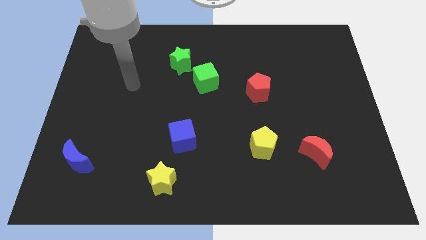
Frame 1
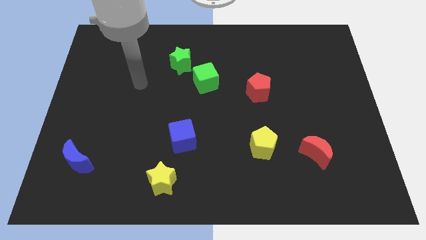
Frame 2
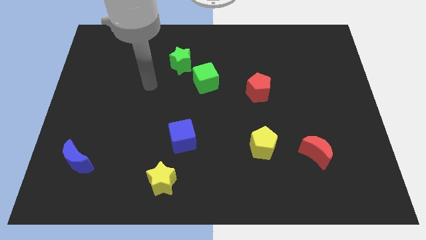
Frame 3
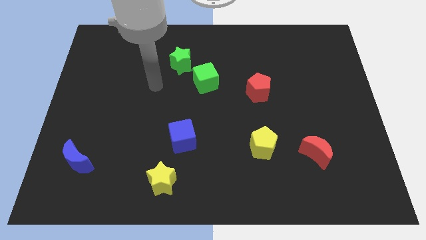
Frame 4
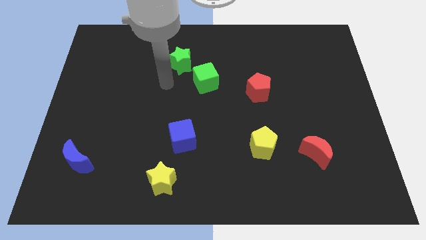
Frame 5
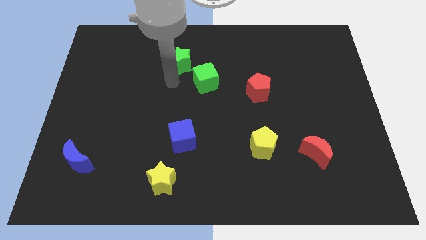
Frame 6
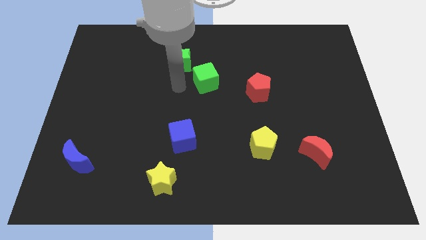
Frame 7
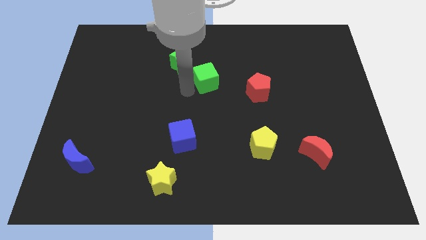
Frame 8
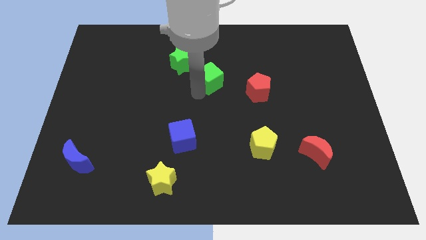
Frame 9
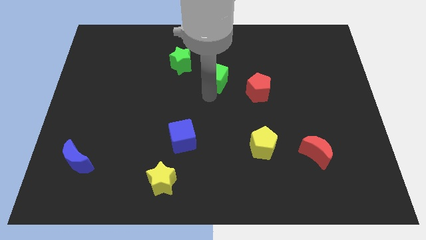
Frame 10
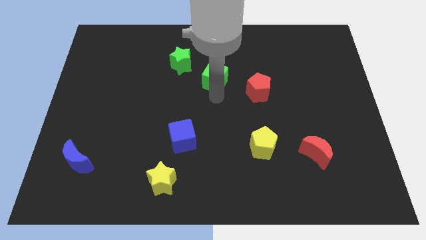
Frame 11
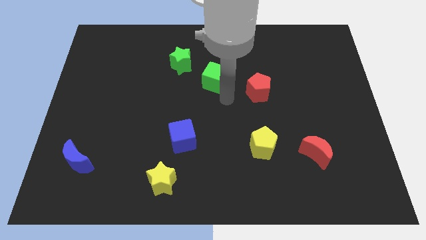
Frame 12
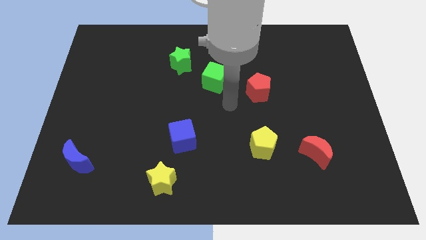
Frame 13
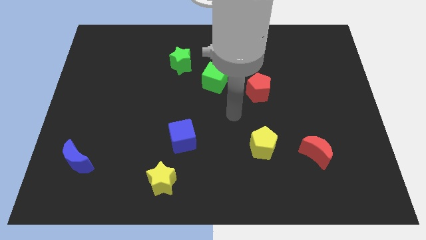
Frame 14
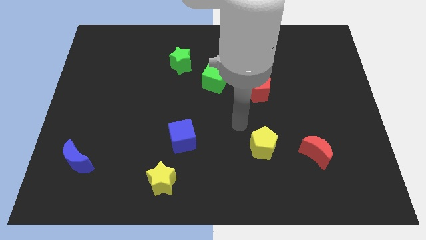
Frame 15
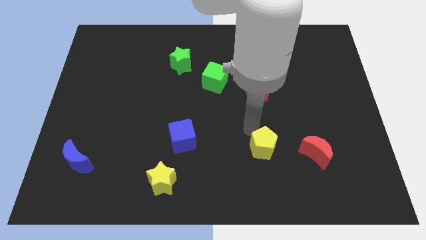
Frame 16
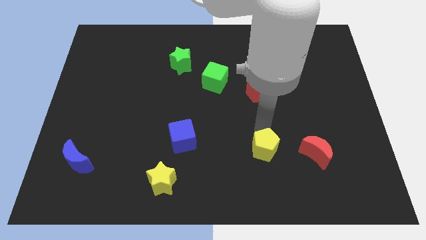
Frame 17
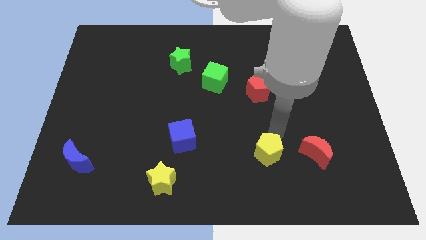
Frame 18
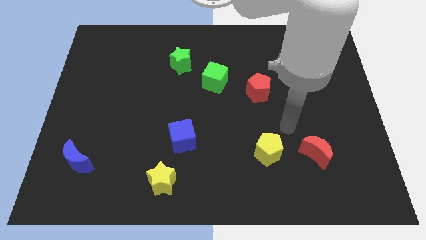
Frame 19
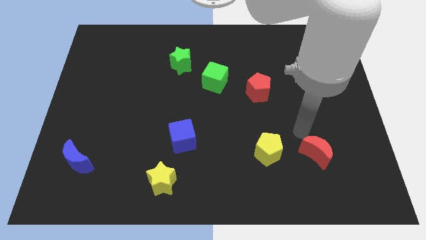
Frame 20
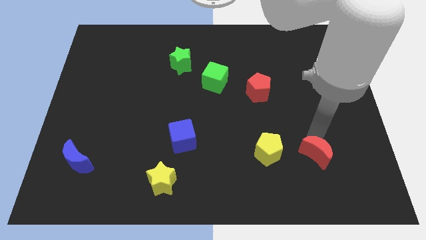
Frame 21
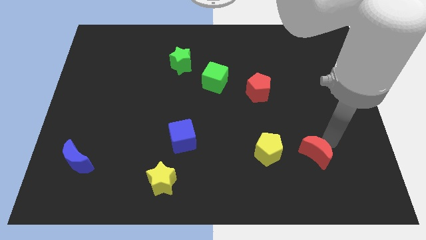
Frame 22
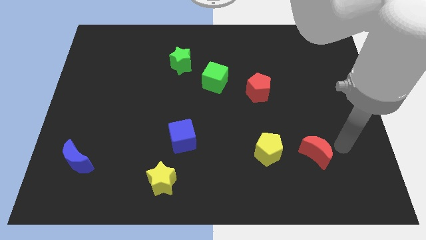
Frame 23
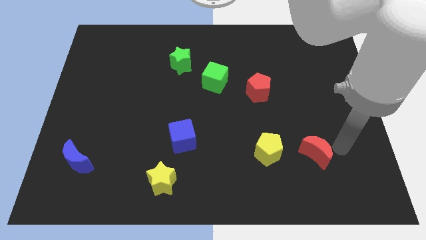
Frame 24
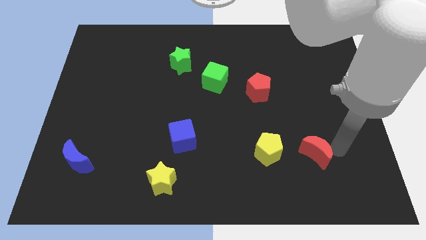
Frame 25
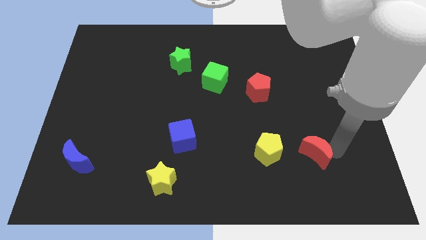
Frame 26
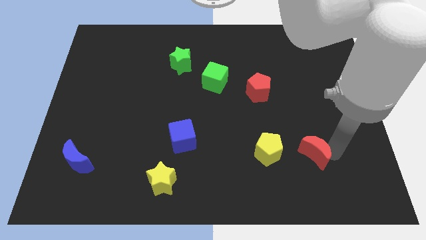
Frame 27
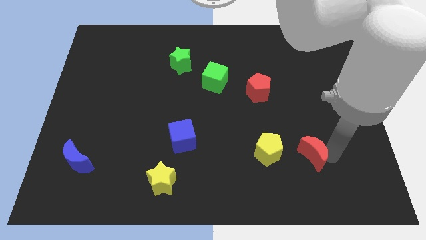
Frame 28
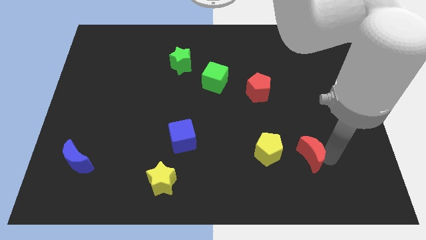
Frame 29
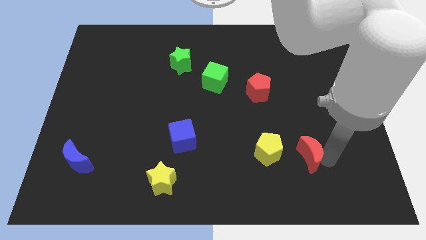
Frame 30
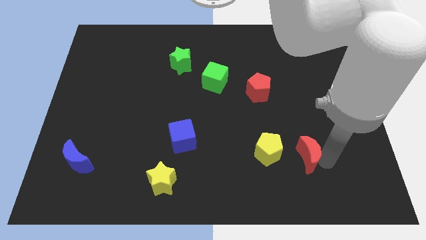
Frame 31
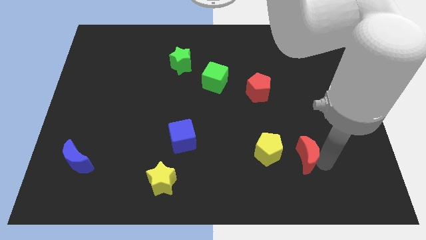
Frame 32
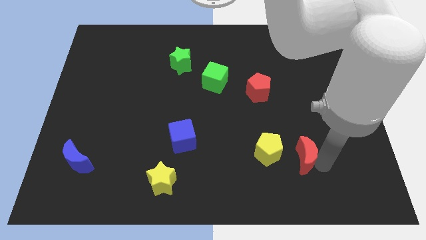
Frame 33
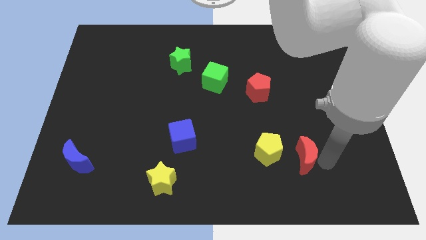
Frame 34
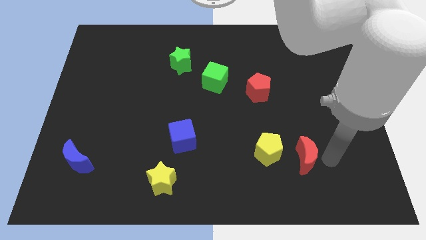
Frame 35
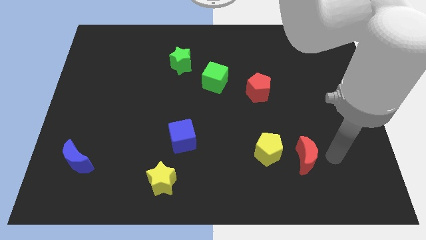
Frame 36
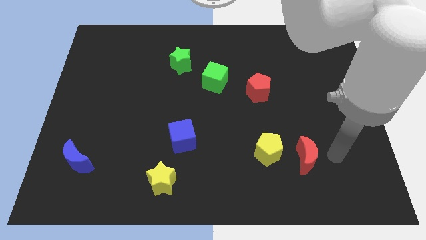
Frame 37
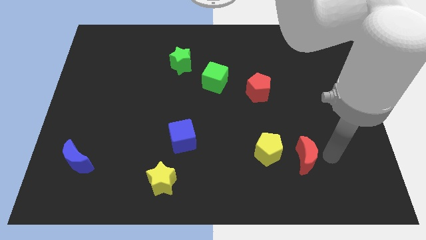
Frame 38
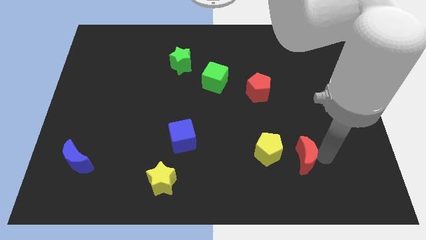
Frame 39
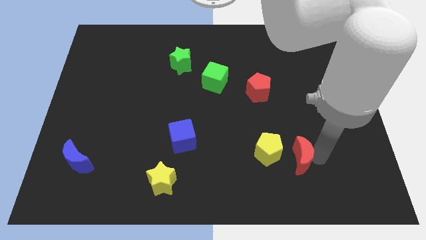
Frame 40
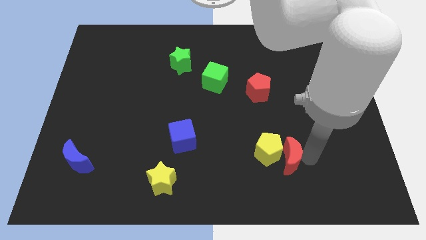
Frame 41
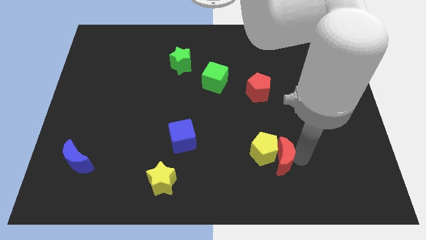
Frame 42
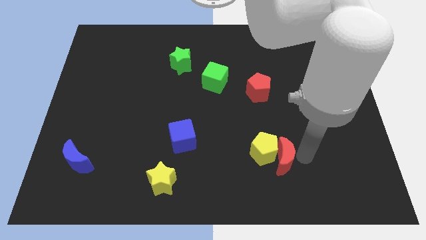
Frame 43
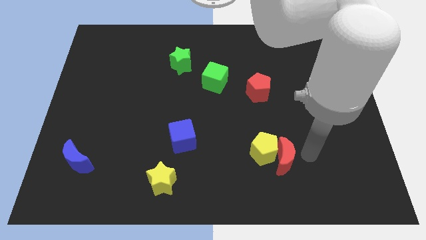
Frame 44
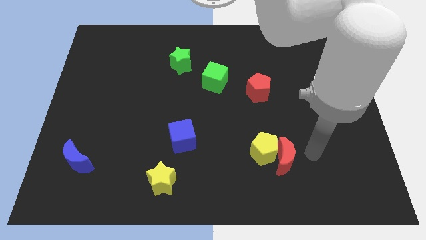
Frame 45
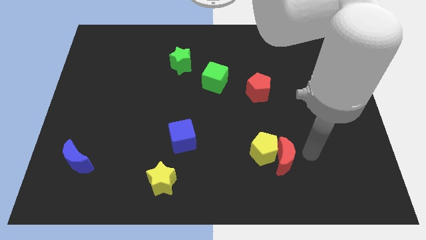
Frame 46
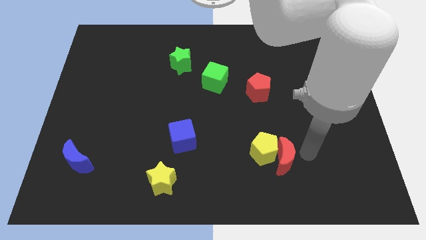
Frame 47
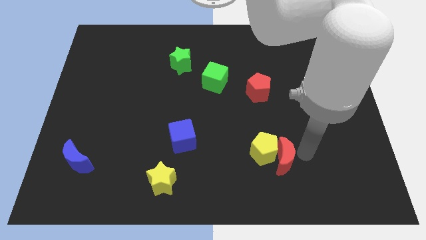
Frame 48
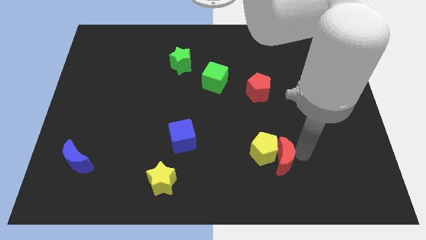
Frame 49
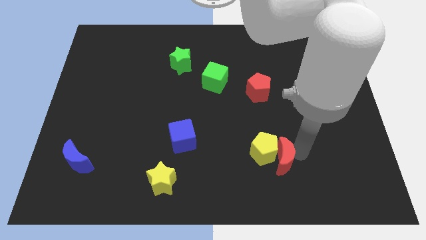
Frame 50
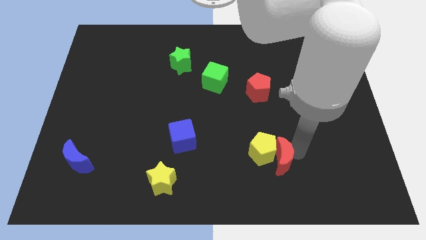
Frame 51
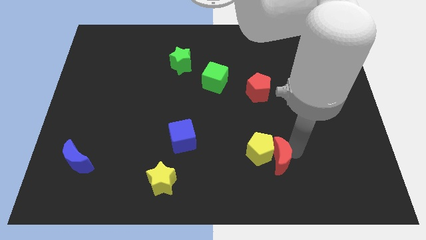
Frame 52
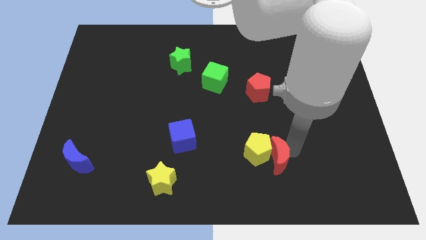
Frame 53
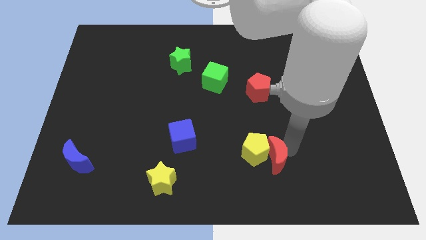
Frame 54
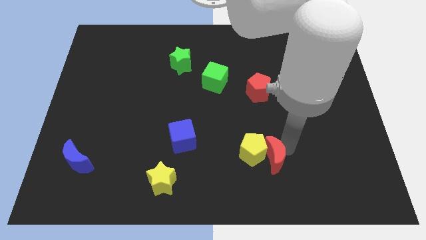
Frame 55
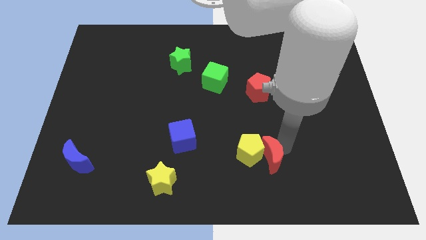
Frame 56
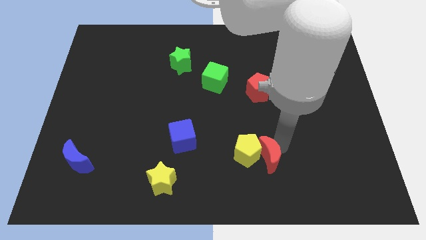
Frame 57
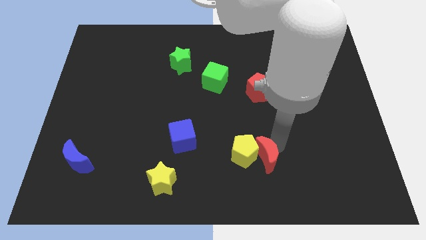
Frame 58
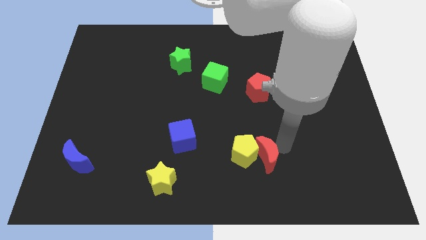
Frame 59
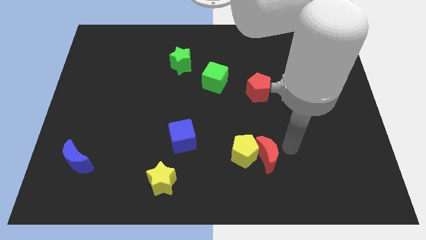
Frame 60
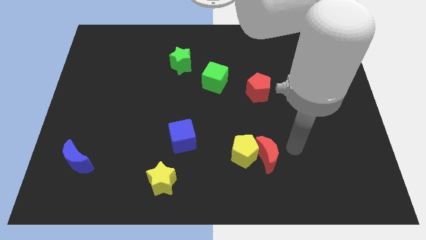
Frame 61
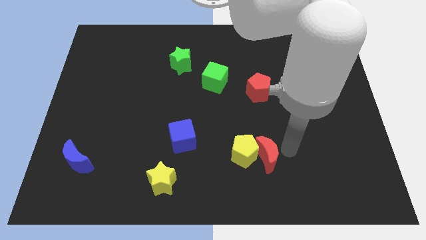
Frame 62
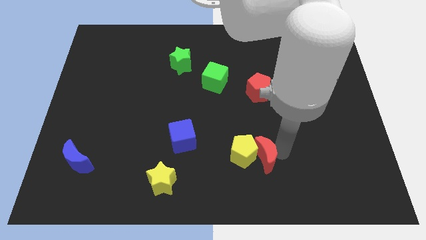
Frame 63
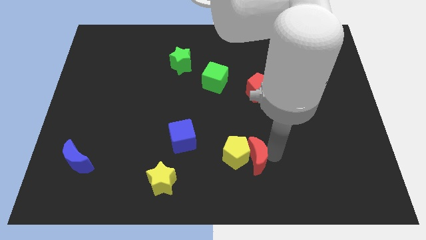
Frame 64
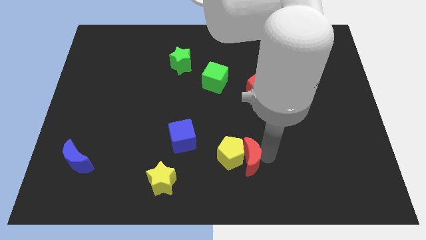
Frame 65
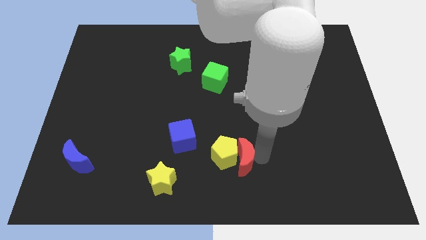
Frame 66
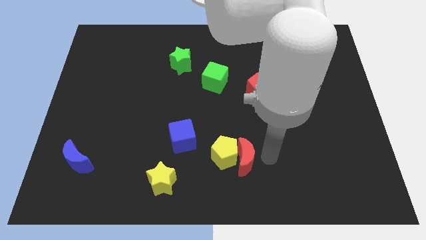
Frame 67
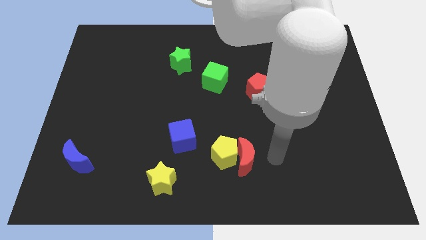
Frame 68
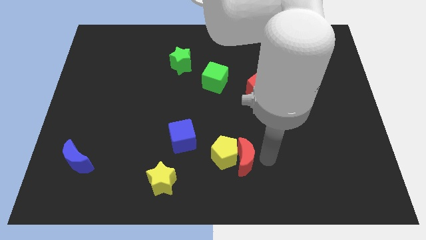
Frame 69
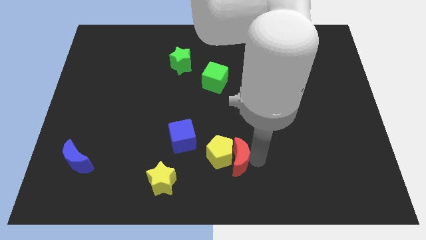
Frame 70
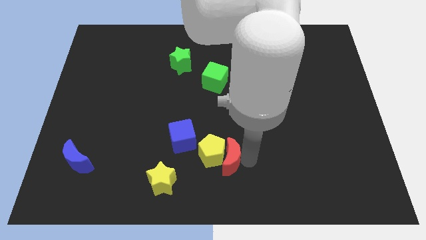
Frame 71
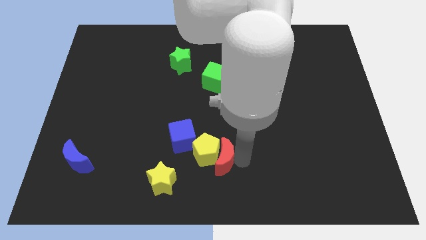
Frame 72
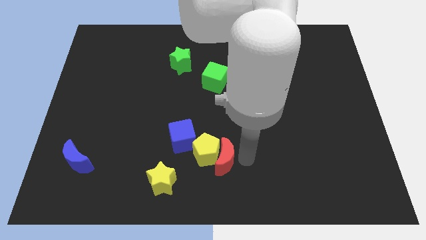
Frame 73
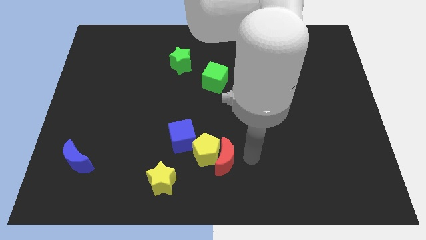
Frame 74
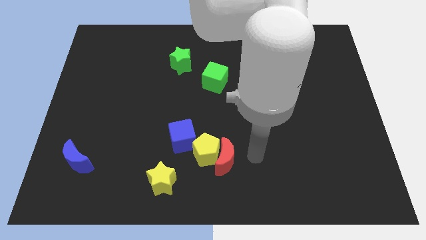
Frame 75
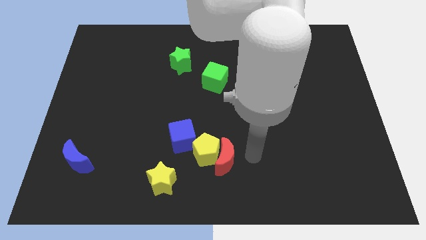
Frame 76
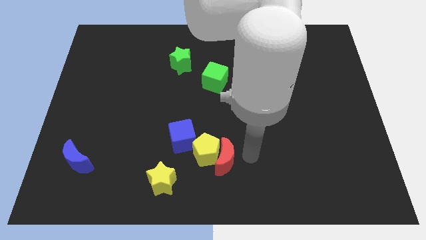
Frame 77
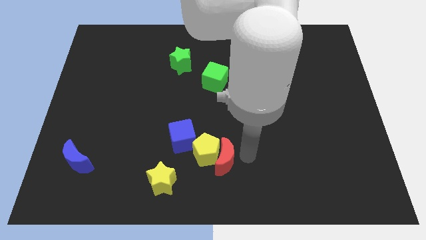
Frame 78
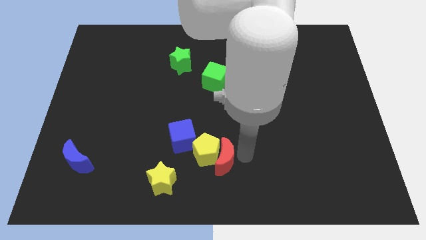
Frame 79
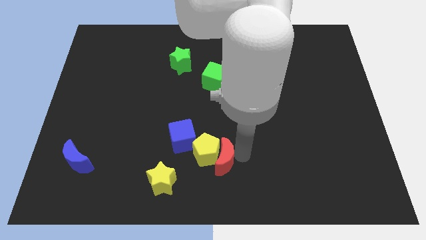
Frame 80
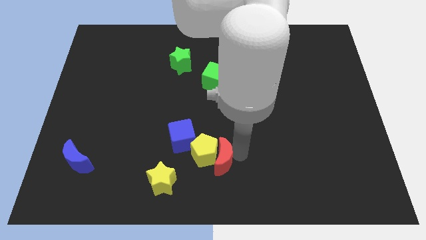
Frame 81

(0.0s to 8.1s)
move the red moon left

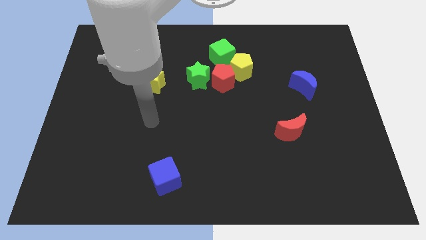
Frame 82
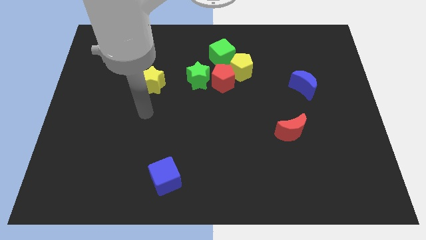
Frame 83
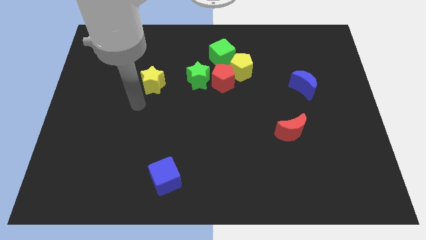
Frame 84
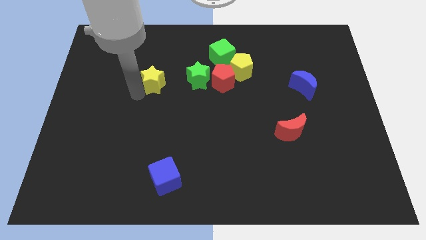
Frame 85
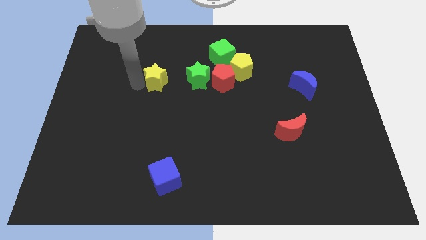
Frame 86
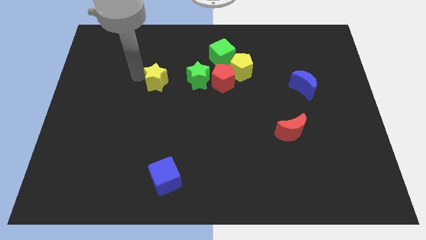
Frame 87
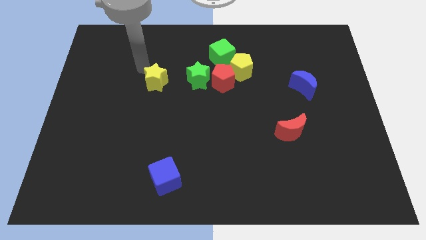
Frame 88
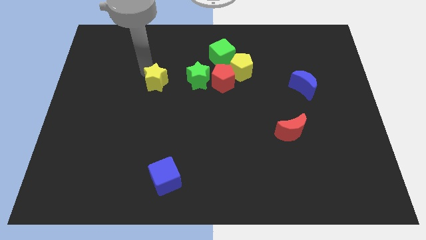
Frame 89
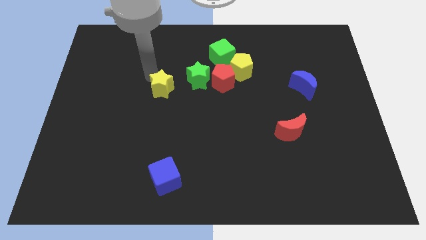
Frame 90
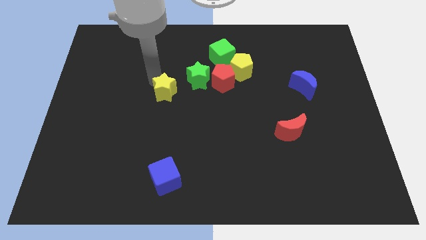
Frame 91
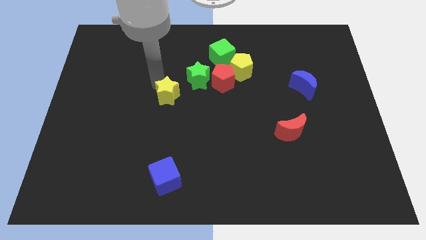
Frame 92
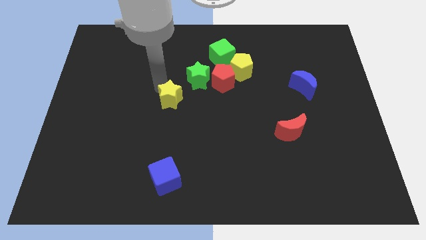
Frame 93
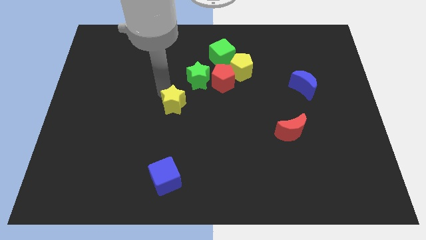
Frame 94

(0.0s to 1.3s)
move the yellow star somewhat downwards and then right
